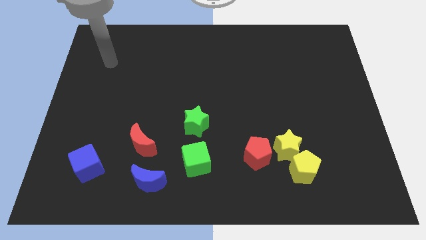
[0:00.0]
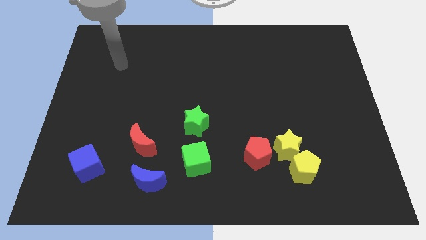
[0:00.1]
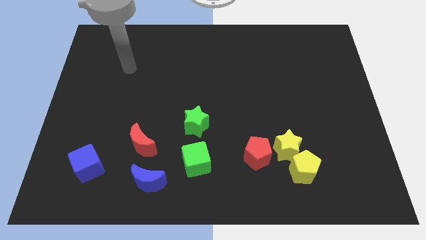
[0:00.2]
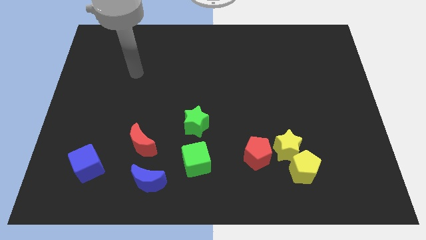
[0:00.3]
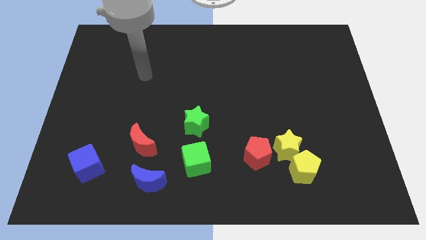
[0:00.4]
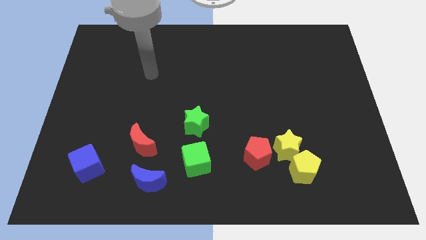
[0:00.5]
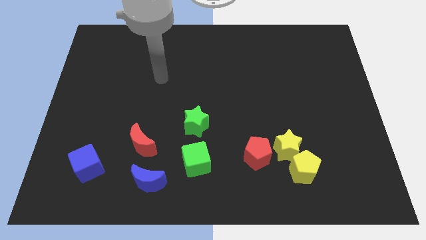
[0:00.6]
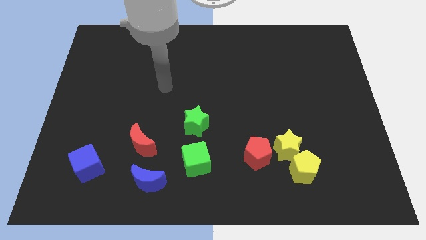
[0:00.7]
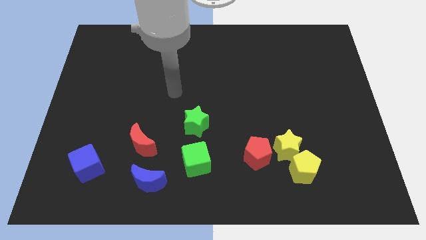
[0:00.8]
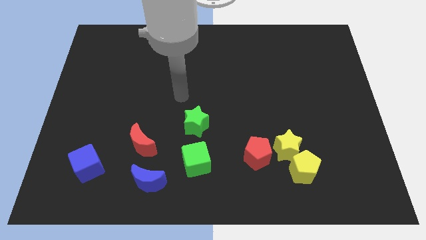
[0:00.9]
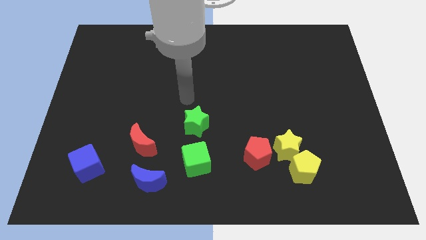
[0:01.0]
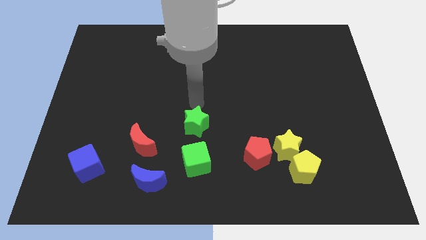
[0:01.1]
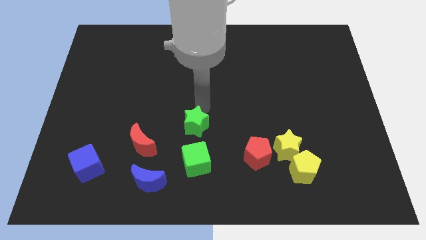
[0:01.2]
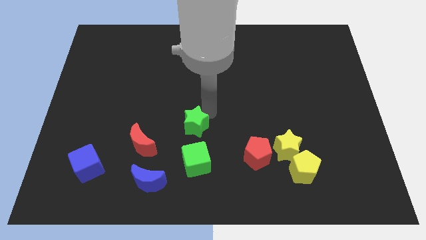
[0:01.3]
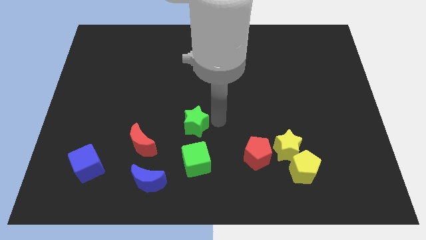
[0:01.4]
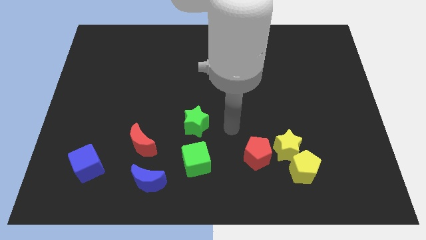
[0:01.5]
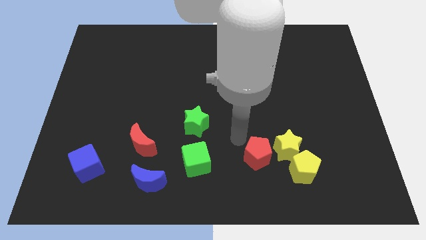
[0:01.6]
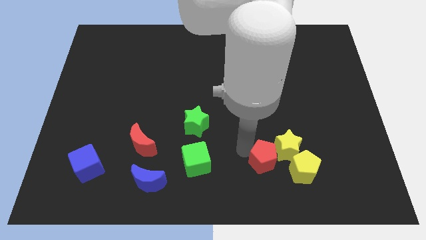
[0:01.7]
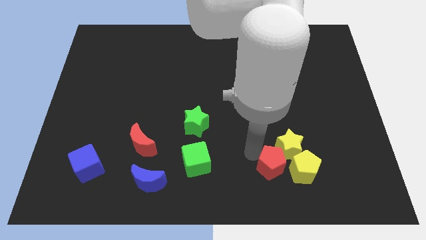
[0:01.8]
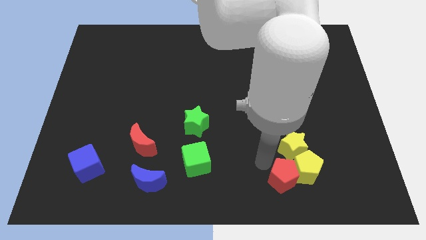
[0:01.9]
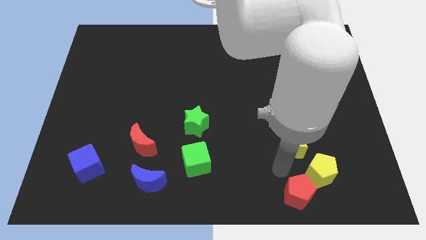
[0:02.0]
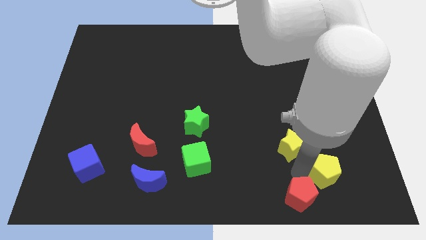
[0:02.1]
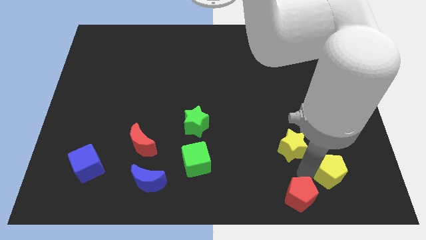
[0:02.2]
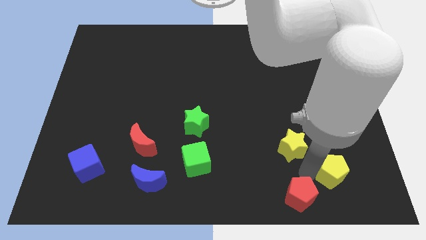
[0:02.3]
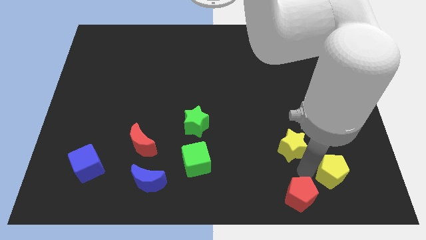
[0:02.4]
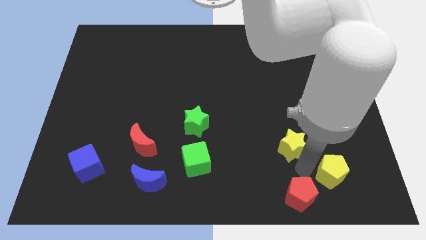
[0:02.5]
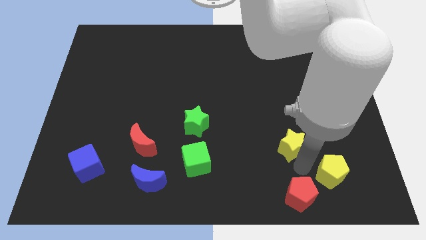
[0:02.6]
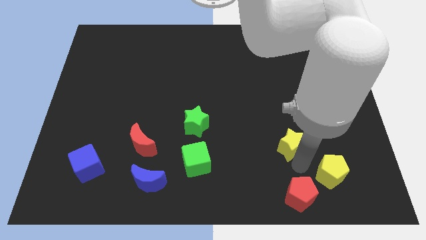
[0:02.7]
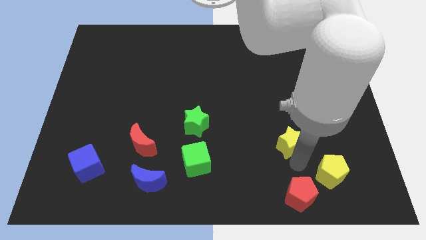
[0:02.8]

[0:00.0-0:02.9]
move the yellow star away from the yellow pentagon and red pentagon

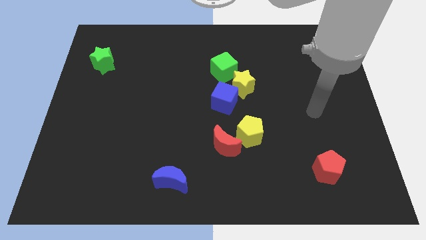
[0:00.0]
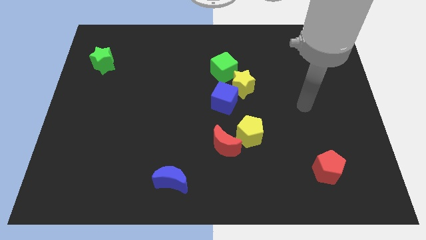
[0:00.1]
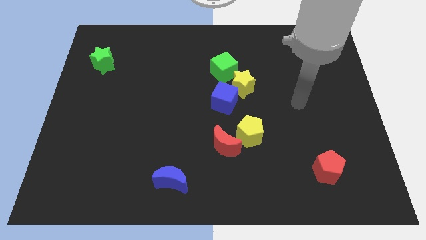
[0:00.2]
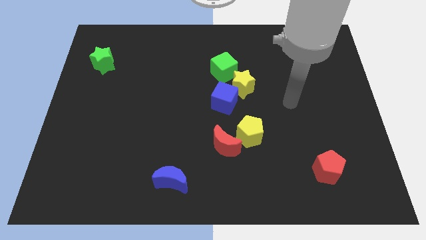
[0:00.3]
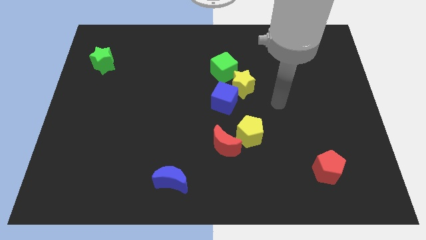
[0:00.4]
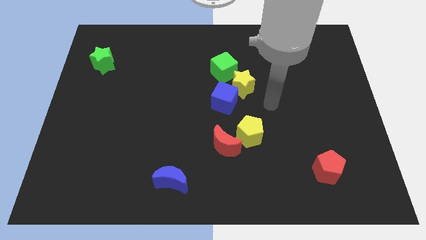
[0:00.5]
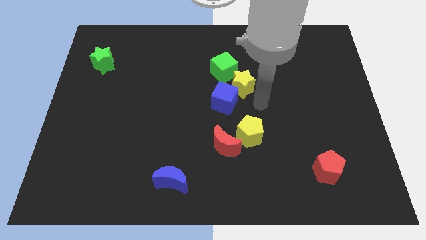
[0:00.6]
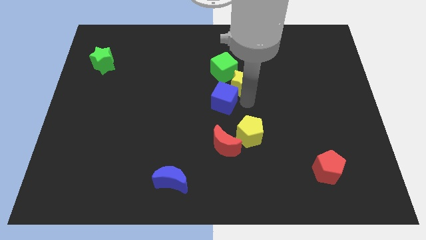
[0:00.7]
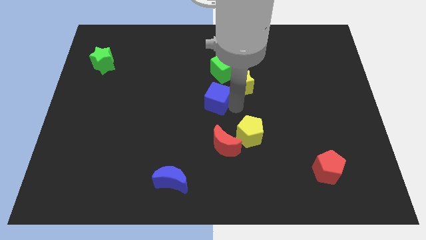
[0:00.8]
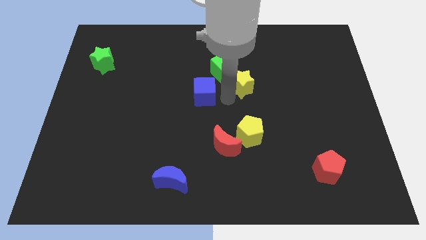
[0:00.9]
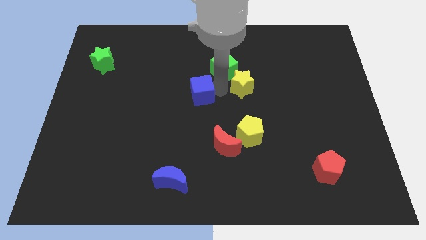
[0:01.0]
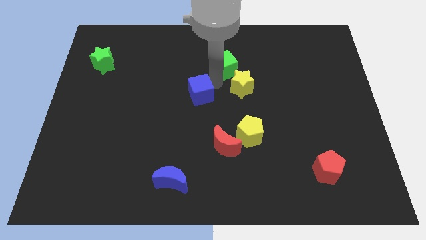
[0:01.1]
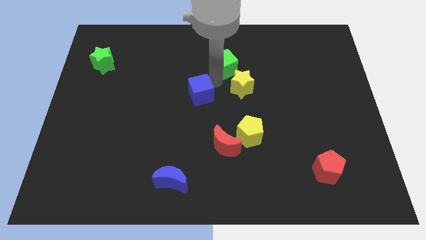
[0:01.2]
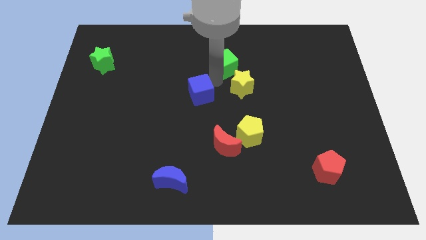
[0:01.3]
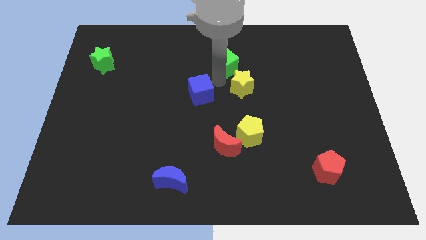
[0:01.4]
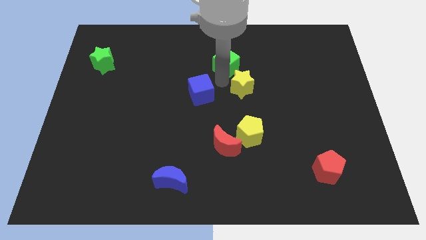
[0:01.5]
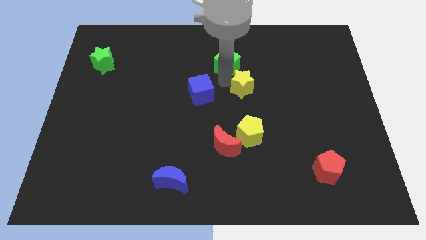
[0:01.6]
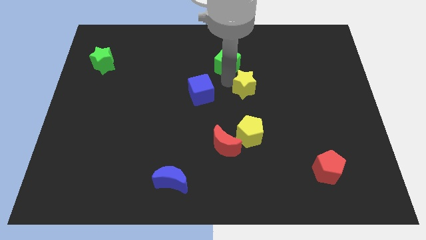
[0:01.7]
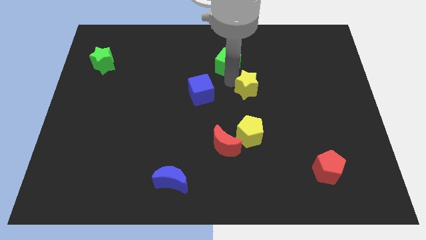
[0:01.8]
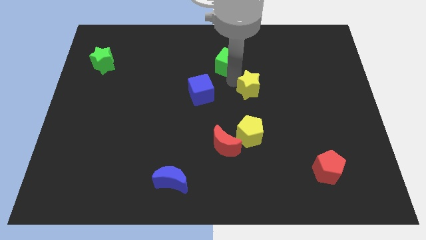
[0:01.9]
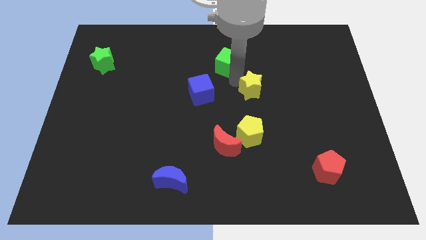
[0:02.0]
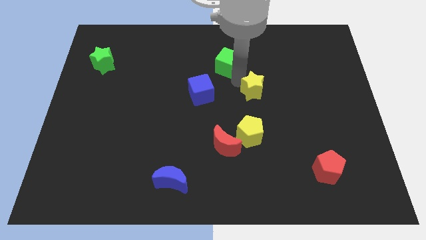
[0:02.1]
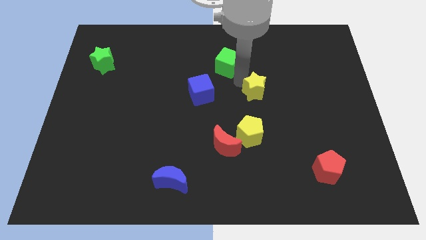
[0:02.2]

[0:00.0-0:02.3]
separate the yellow star from the blue cube and green cube

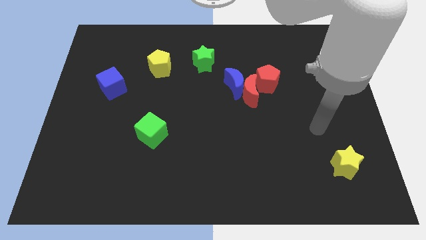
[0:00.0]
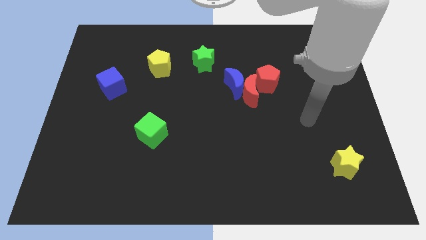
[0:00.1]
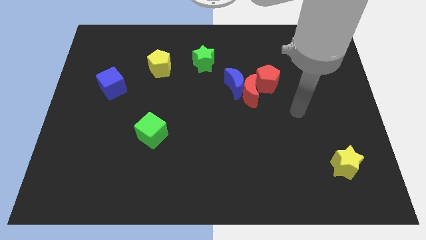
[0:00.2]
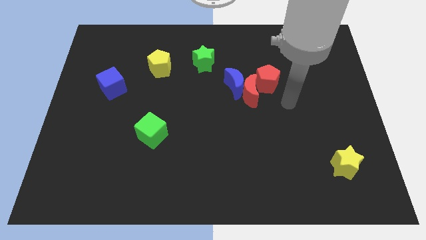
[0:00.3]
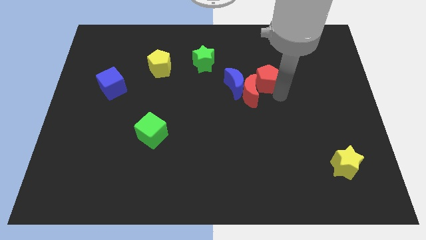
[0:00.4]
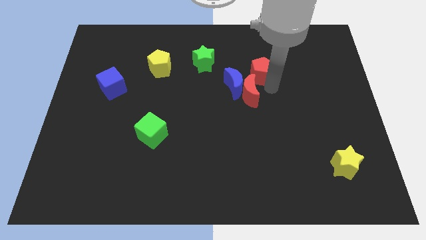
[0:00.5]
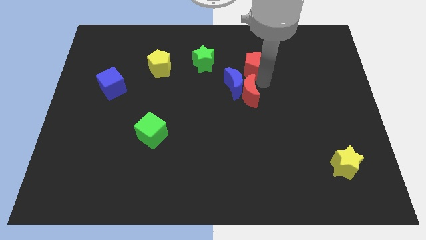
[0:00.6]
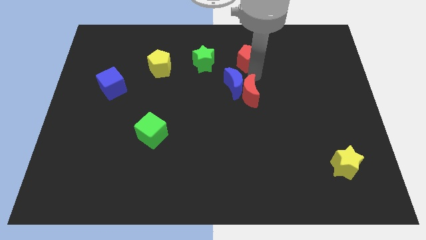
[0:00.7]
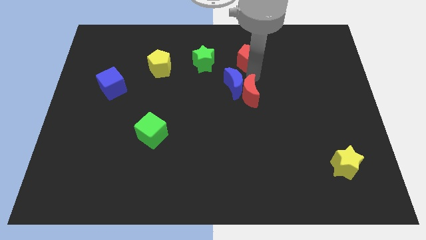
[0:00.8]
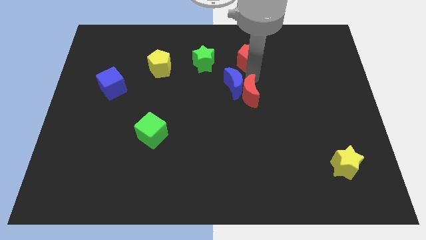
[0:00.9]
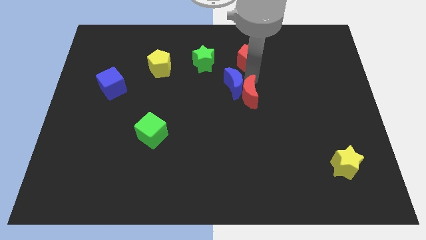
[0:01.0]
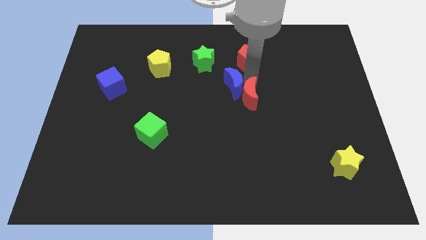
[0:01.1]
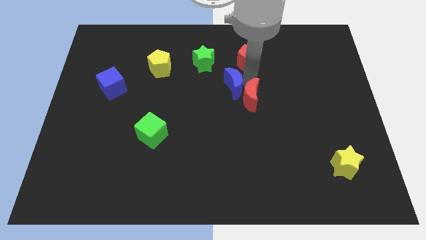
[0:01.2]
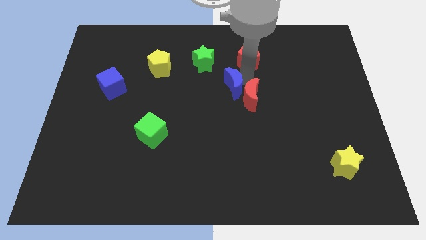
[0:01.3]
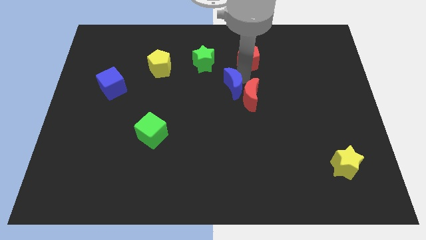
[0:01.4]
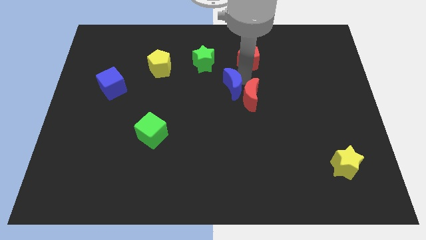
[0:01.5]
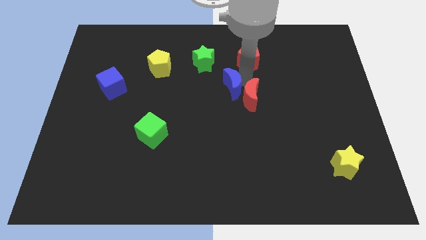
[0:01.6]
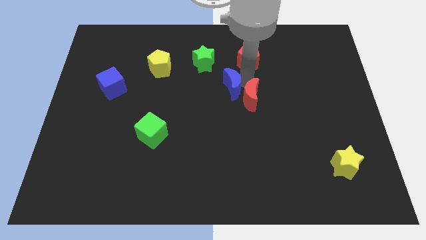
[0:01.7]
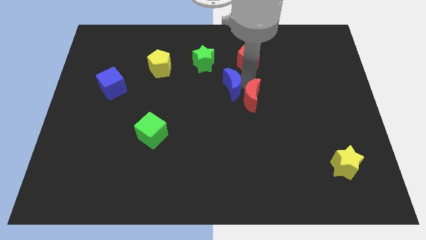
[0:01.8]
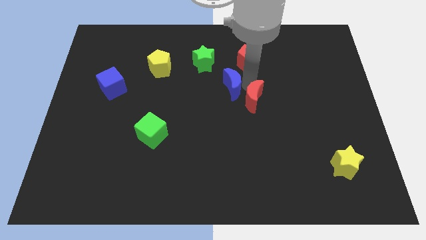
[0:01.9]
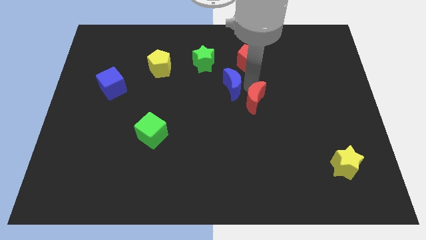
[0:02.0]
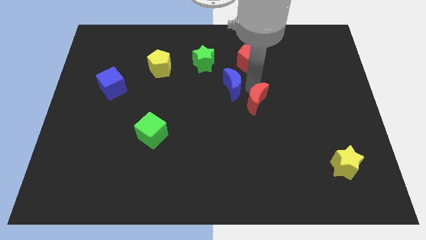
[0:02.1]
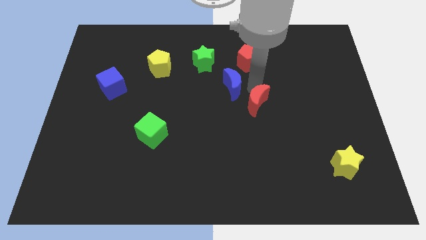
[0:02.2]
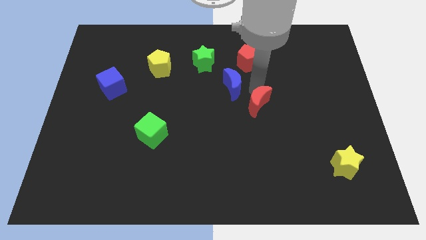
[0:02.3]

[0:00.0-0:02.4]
pull the red moon apart from the blue moon and red pentagon

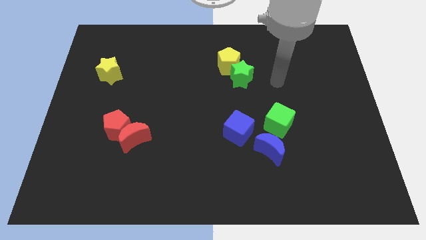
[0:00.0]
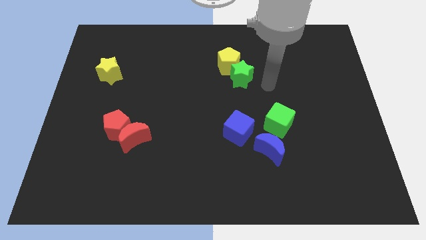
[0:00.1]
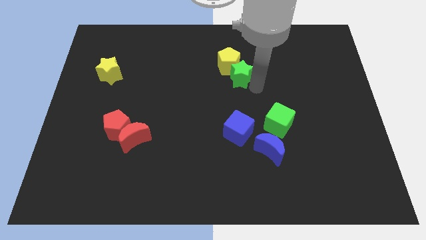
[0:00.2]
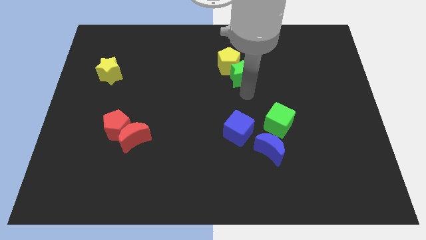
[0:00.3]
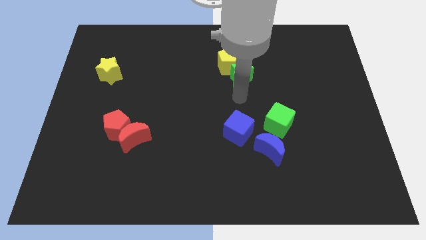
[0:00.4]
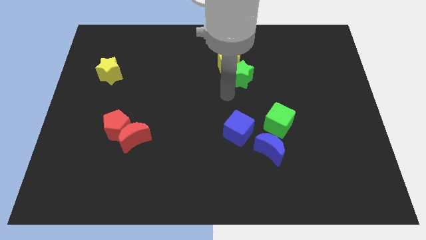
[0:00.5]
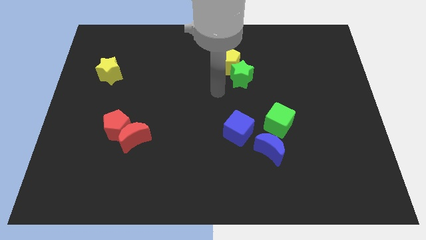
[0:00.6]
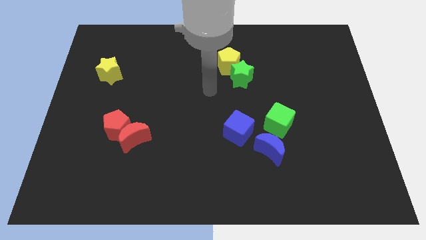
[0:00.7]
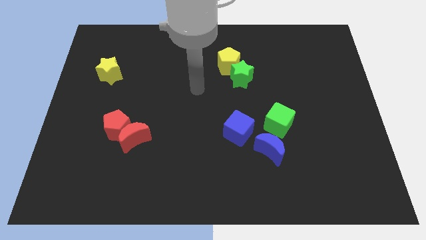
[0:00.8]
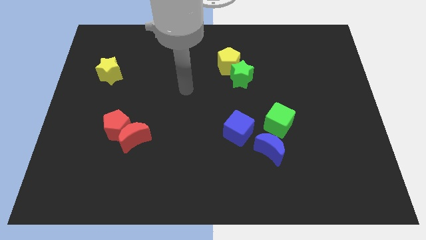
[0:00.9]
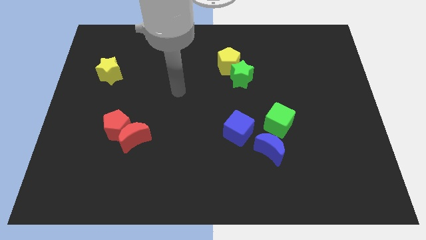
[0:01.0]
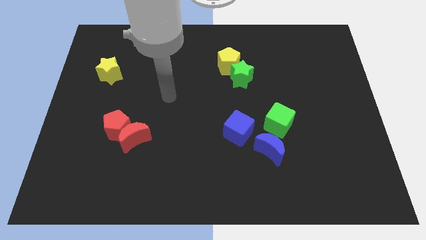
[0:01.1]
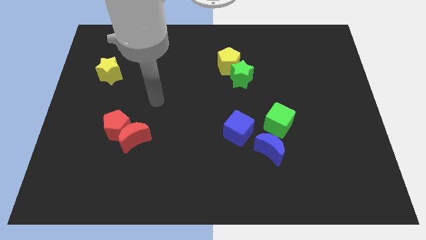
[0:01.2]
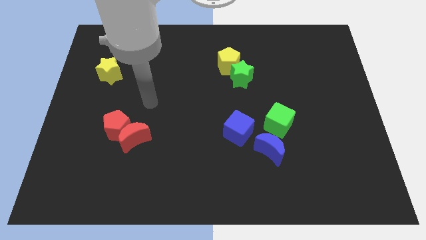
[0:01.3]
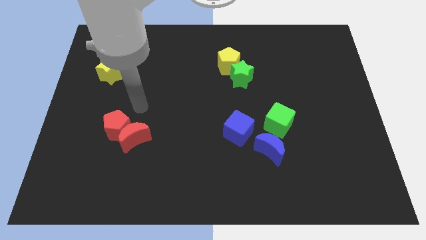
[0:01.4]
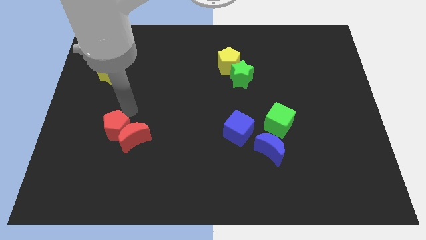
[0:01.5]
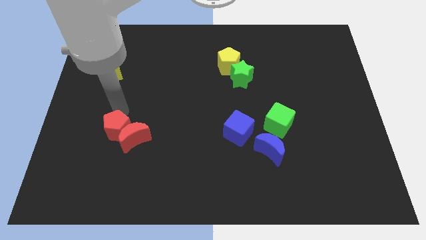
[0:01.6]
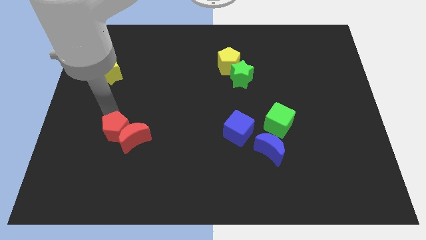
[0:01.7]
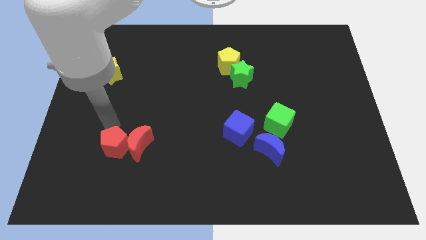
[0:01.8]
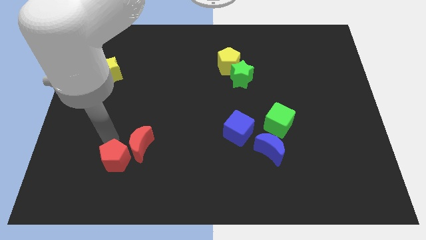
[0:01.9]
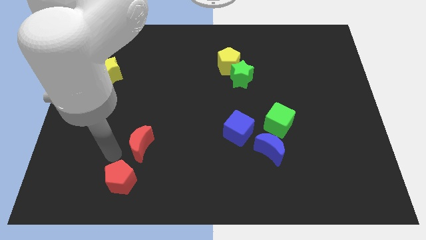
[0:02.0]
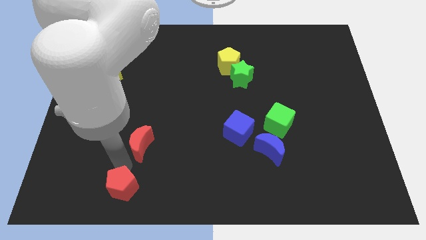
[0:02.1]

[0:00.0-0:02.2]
move the red moon away from the red pentagon
